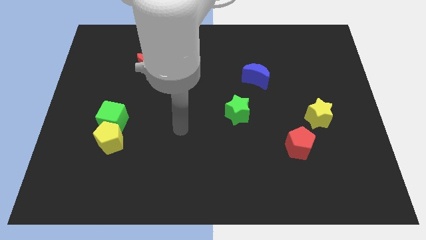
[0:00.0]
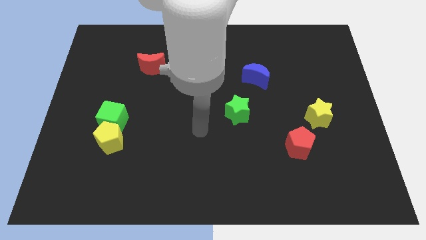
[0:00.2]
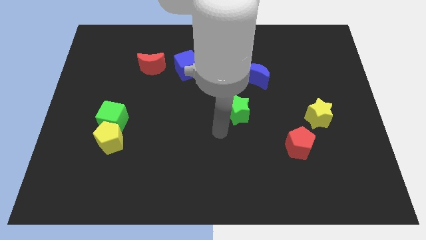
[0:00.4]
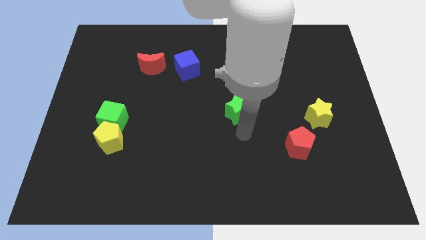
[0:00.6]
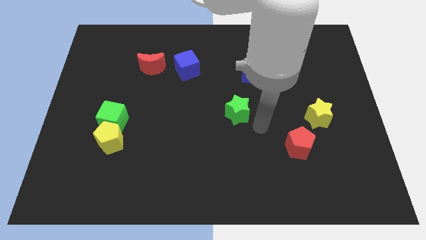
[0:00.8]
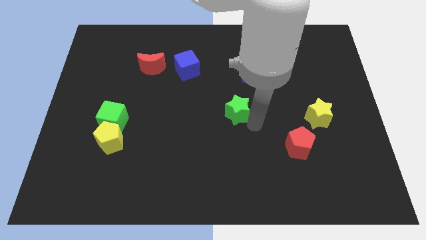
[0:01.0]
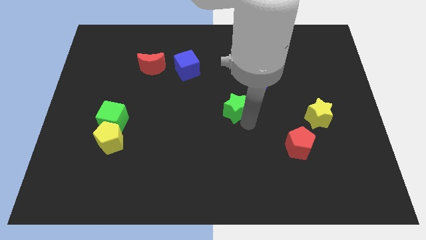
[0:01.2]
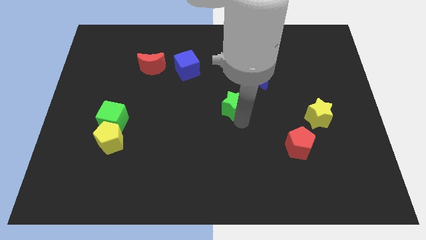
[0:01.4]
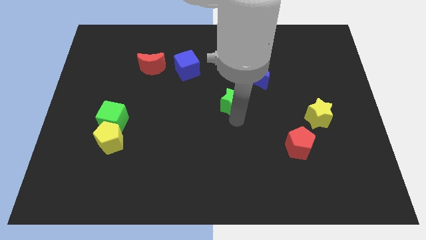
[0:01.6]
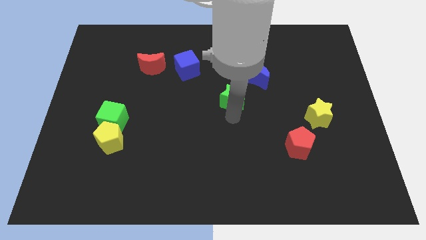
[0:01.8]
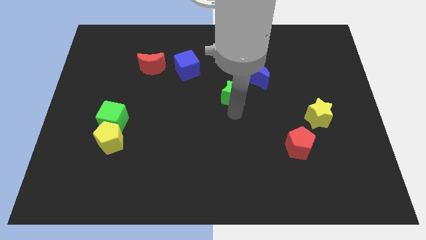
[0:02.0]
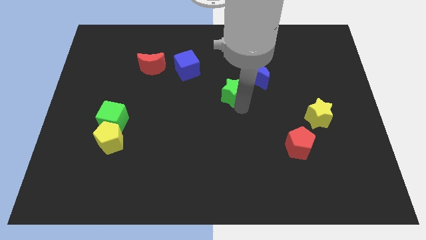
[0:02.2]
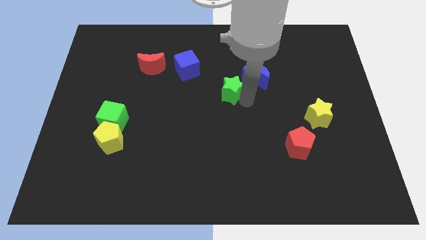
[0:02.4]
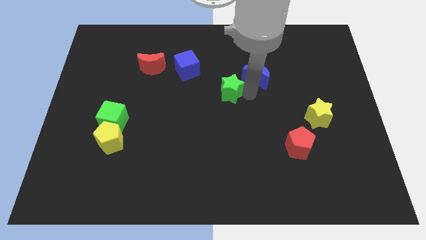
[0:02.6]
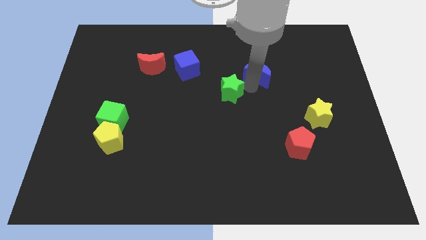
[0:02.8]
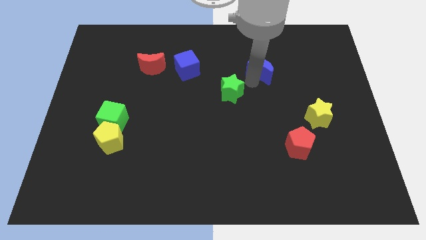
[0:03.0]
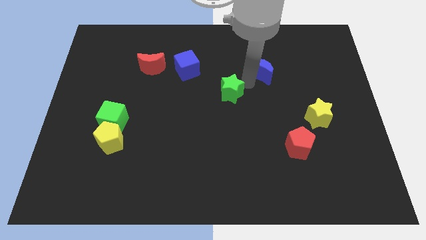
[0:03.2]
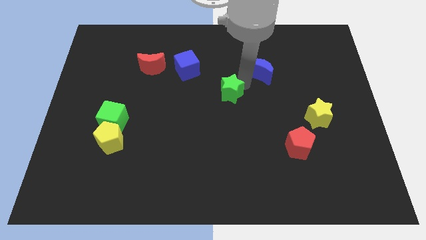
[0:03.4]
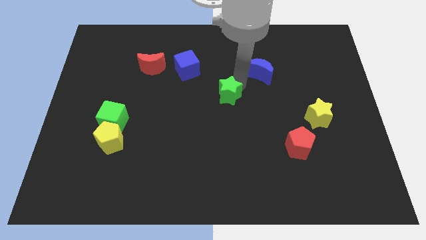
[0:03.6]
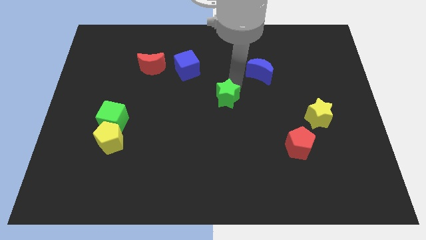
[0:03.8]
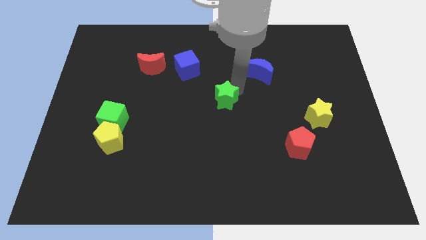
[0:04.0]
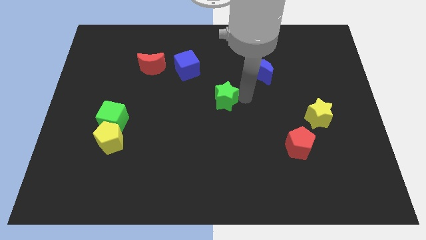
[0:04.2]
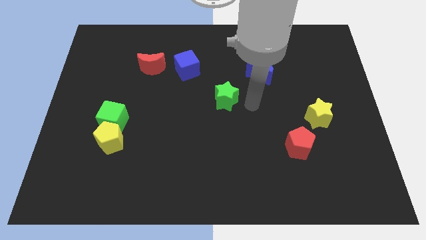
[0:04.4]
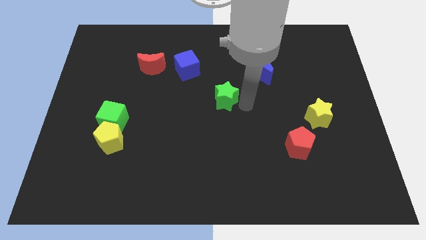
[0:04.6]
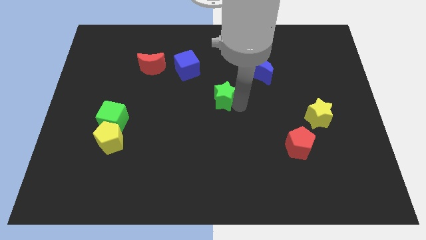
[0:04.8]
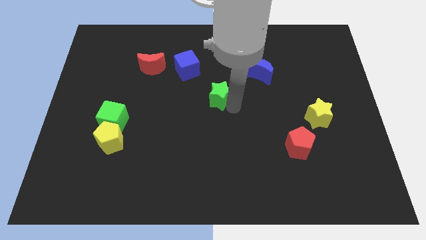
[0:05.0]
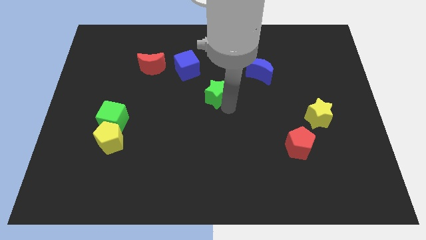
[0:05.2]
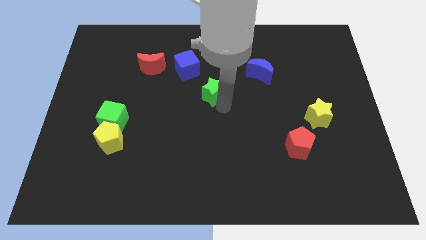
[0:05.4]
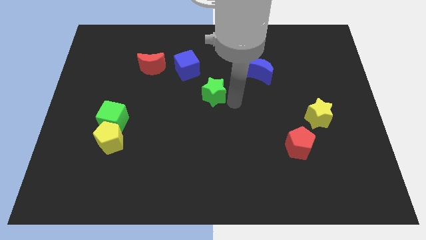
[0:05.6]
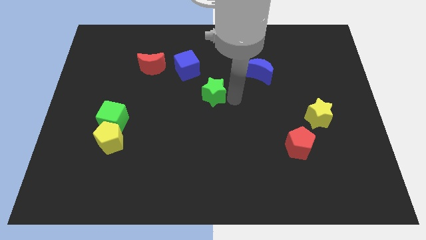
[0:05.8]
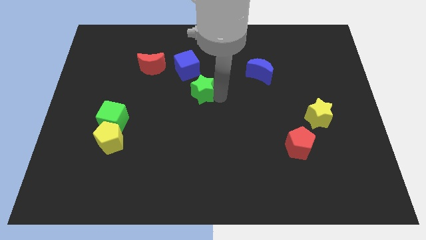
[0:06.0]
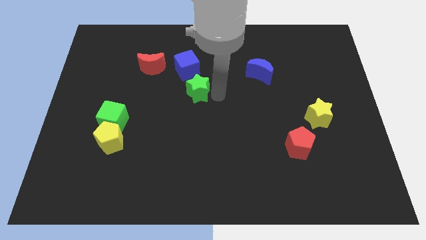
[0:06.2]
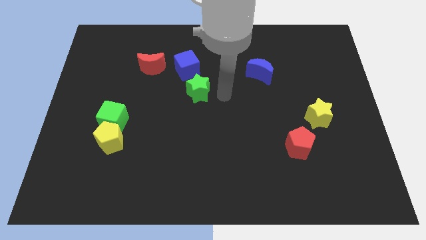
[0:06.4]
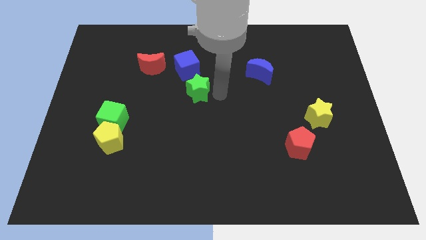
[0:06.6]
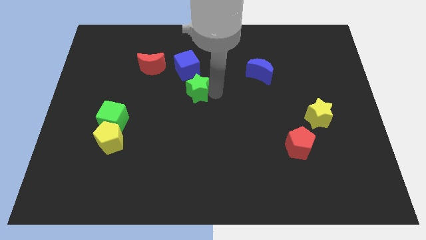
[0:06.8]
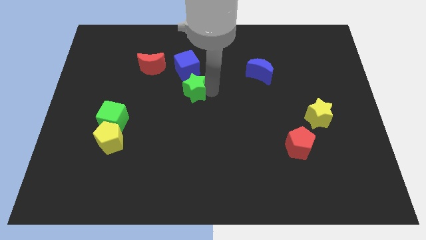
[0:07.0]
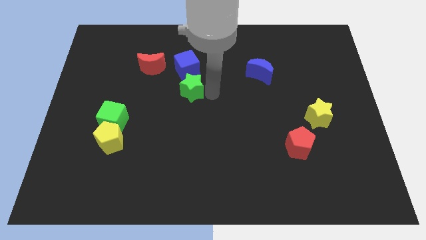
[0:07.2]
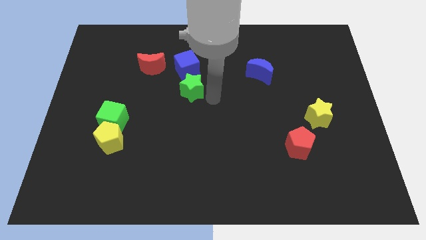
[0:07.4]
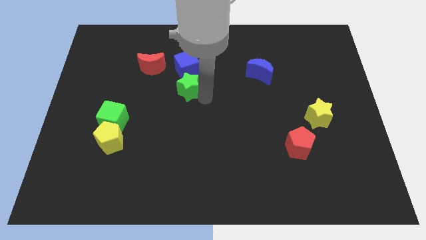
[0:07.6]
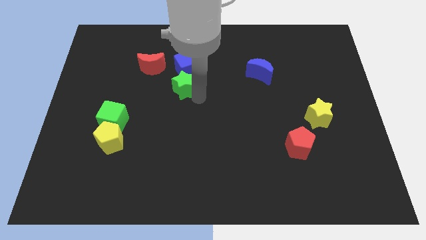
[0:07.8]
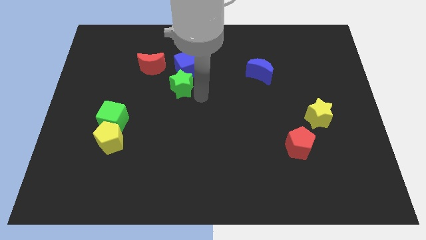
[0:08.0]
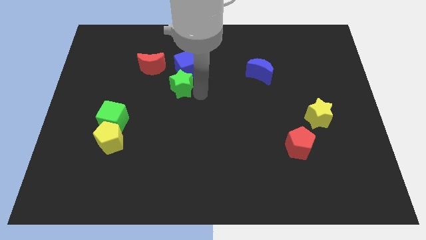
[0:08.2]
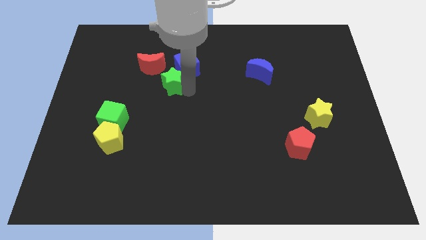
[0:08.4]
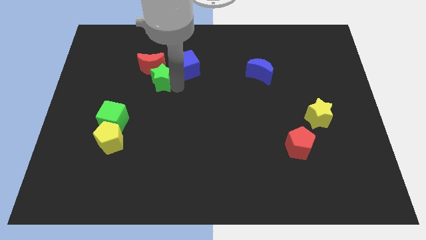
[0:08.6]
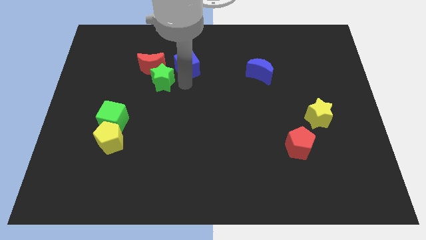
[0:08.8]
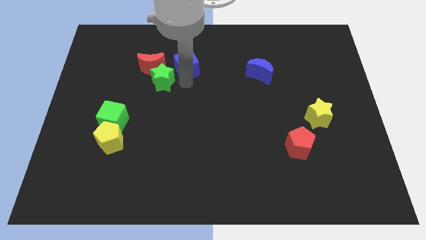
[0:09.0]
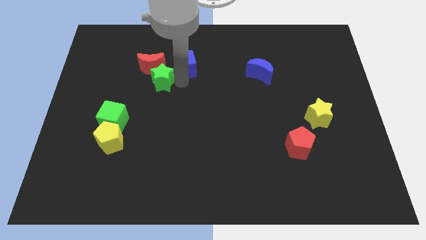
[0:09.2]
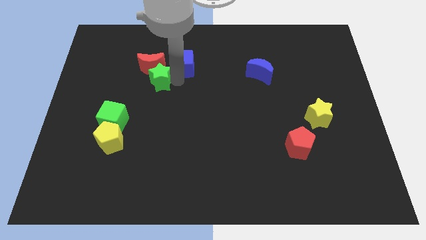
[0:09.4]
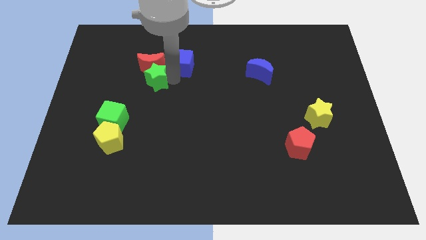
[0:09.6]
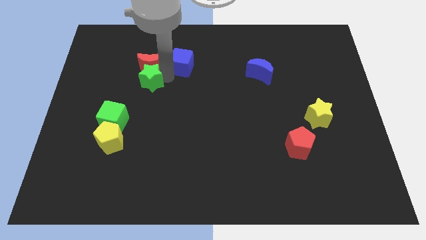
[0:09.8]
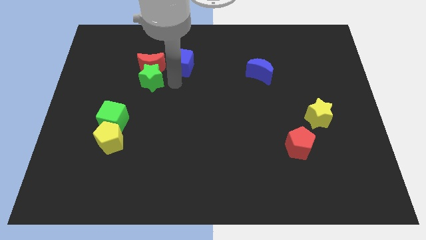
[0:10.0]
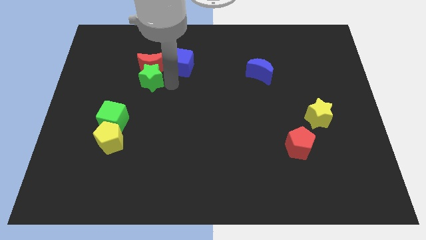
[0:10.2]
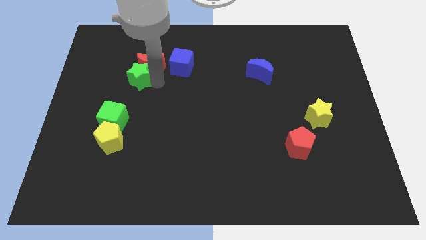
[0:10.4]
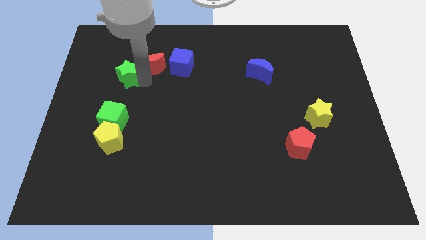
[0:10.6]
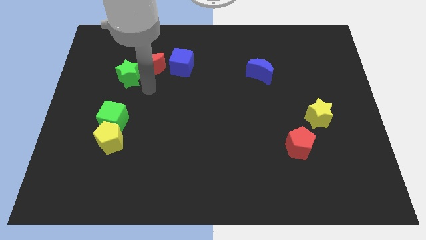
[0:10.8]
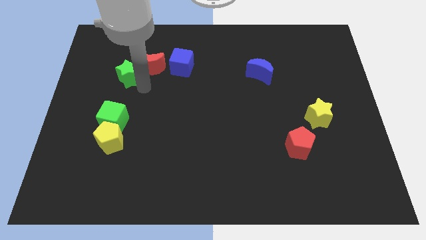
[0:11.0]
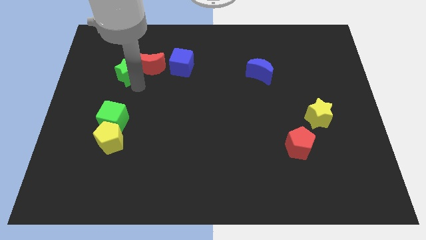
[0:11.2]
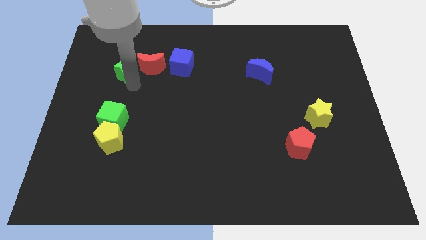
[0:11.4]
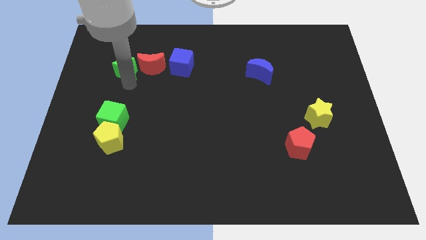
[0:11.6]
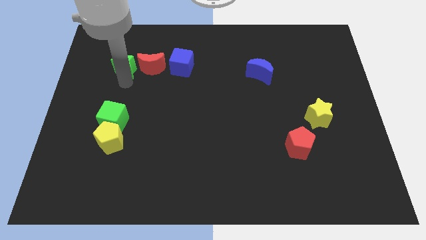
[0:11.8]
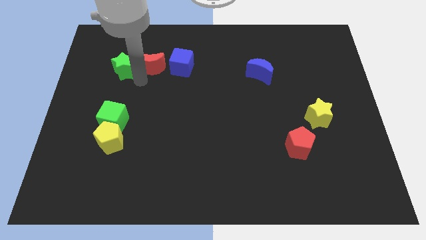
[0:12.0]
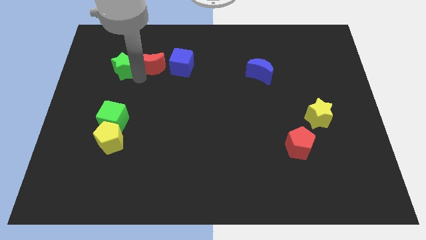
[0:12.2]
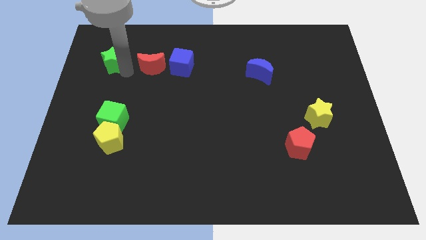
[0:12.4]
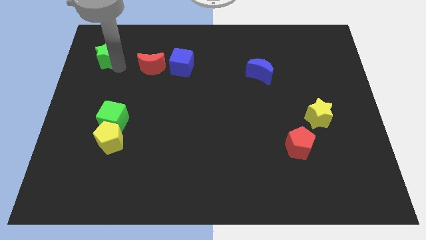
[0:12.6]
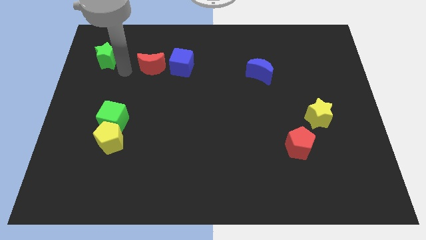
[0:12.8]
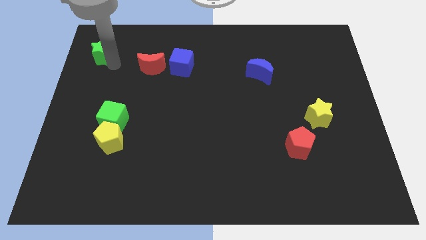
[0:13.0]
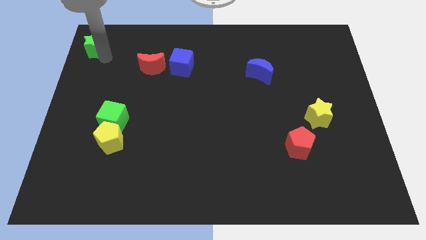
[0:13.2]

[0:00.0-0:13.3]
push the green star to the upper left corner

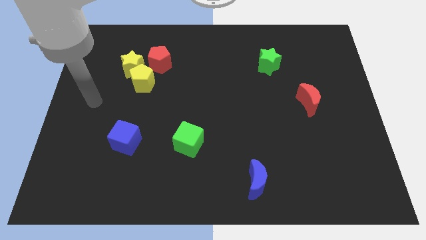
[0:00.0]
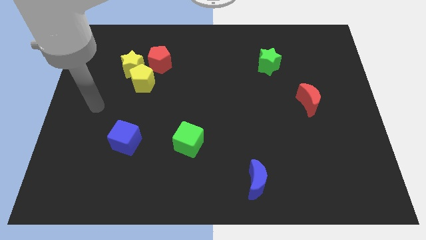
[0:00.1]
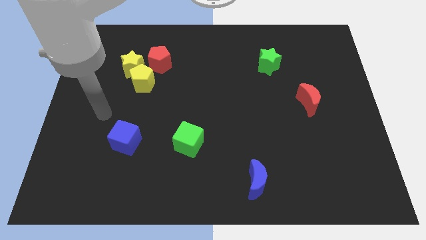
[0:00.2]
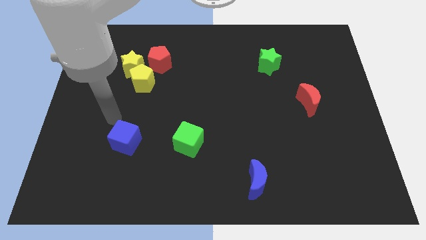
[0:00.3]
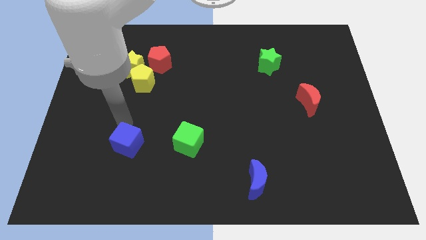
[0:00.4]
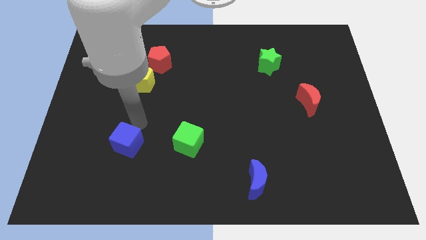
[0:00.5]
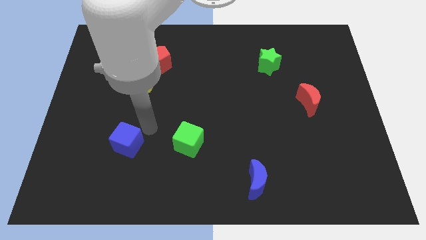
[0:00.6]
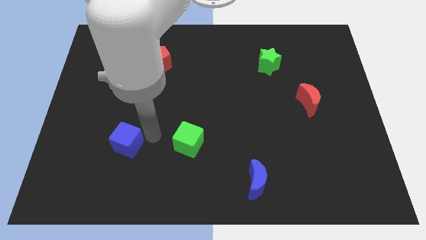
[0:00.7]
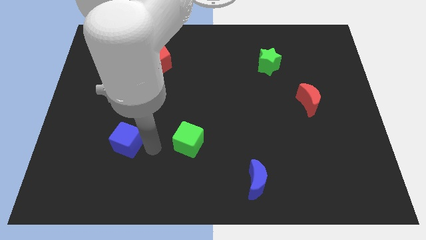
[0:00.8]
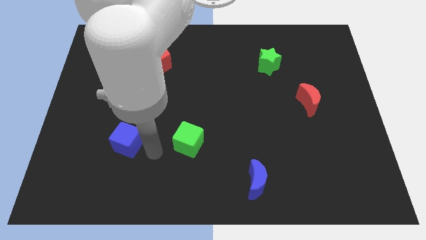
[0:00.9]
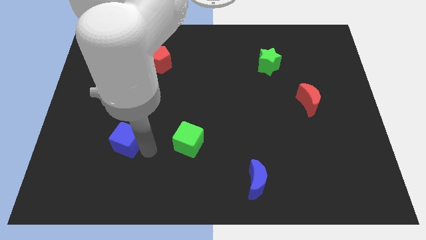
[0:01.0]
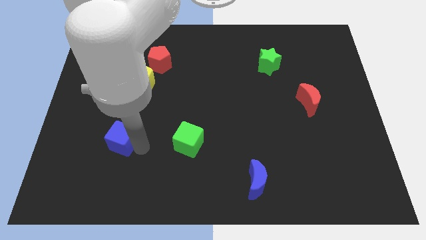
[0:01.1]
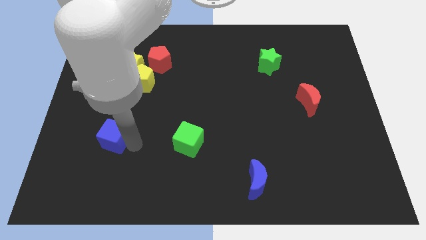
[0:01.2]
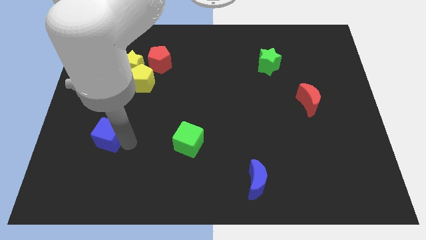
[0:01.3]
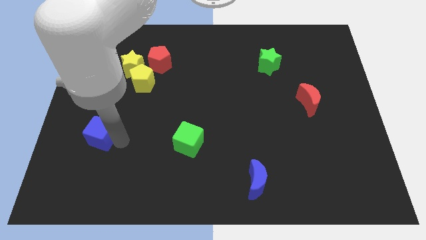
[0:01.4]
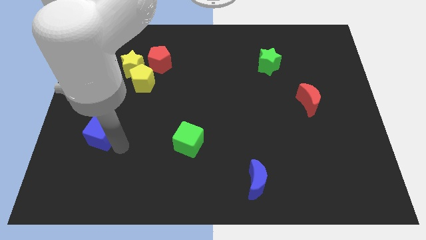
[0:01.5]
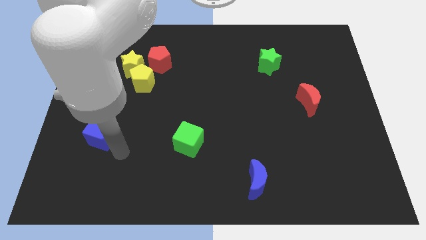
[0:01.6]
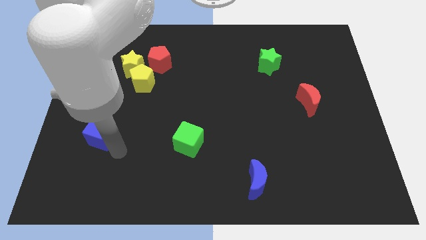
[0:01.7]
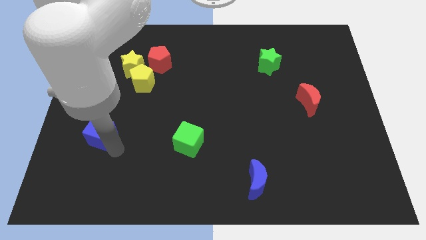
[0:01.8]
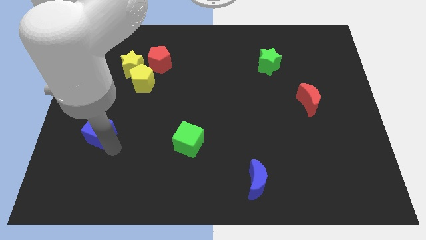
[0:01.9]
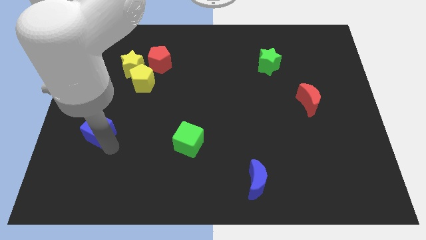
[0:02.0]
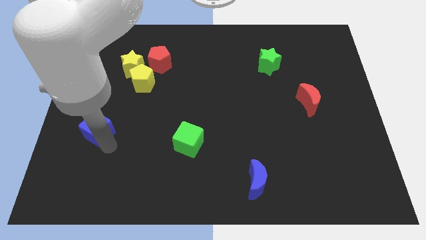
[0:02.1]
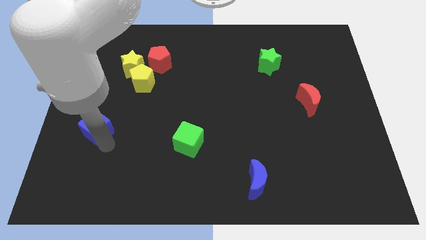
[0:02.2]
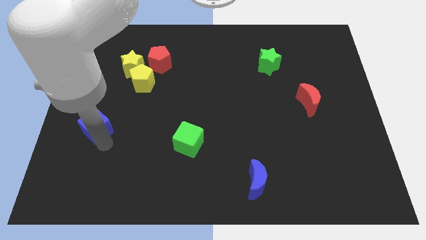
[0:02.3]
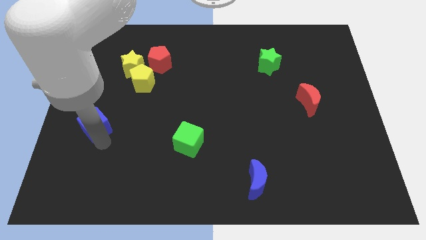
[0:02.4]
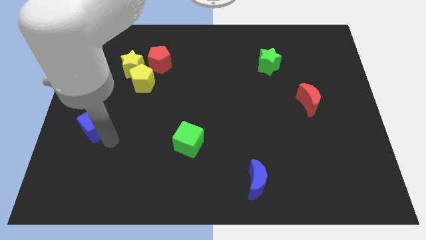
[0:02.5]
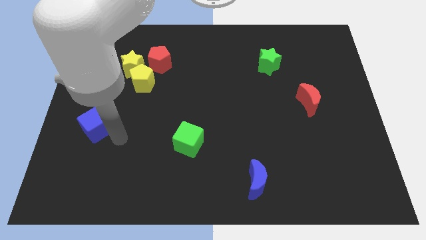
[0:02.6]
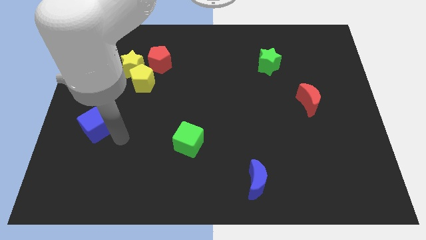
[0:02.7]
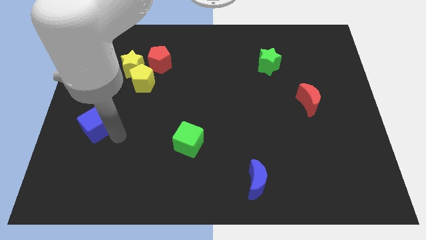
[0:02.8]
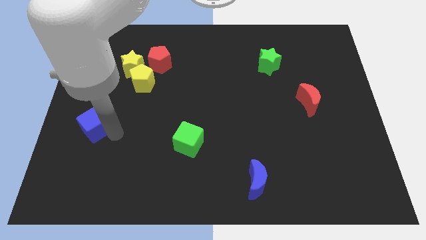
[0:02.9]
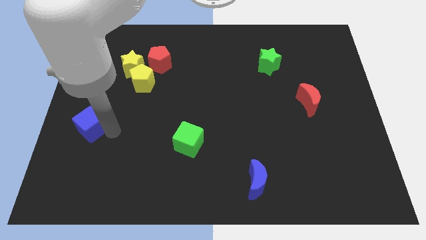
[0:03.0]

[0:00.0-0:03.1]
push the blue cube to the center left
